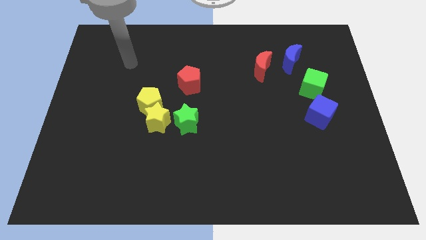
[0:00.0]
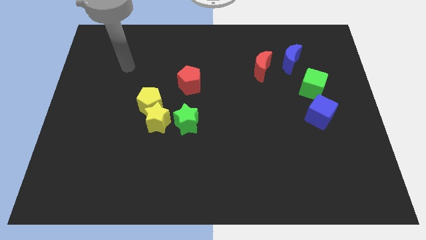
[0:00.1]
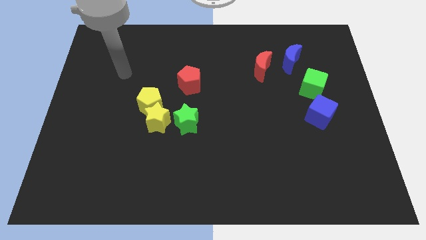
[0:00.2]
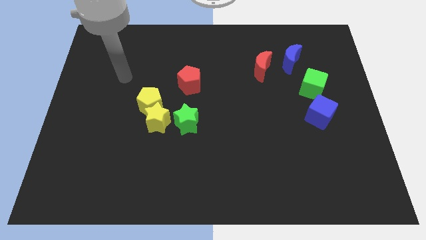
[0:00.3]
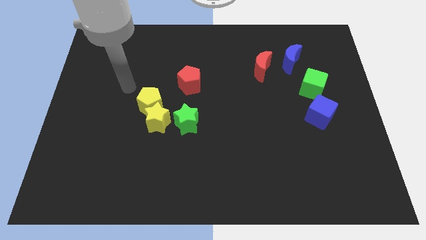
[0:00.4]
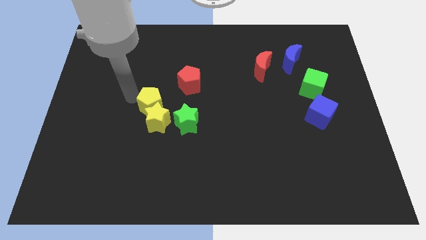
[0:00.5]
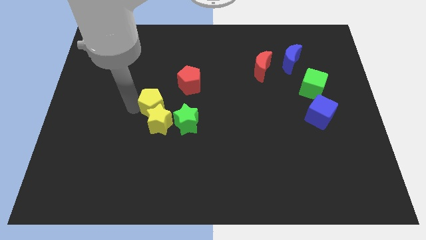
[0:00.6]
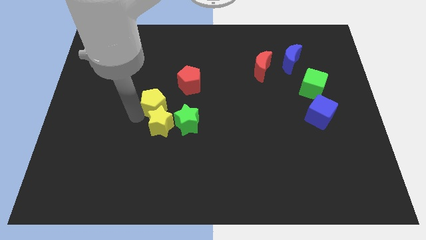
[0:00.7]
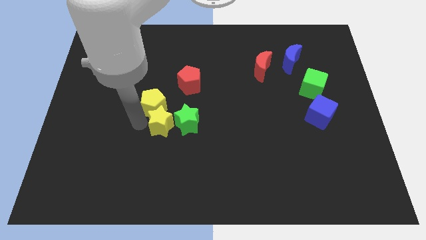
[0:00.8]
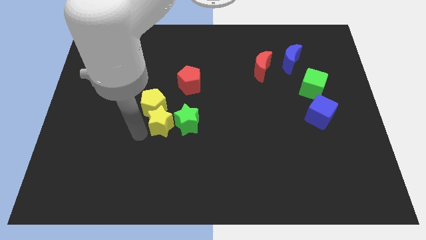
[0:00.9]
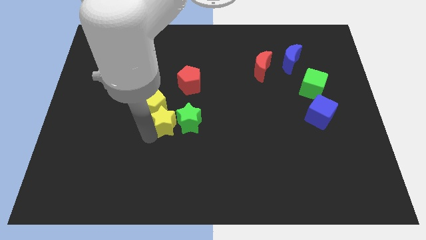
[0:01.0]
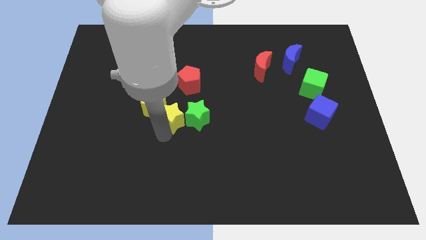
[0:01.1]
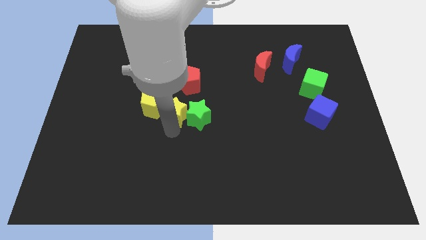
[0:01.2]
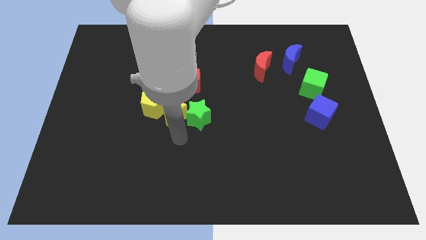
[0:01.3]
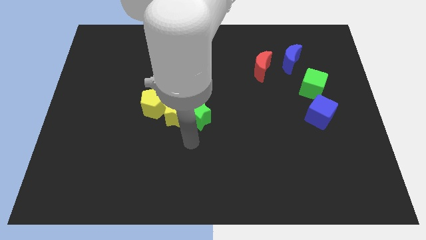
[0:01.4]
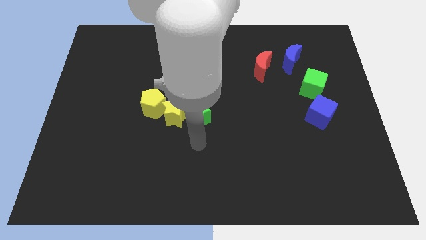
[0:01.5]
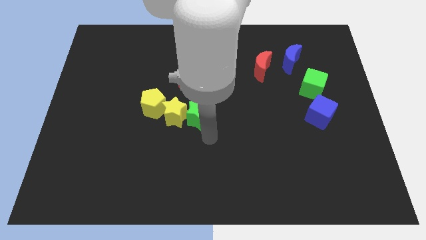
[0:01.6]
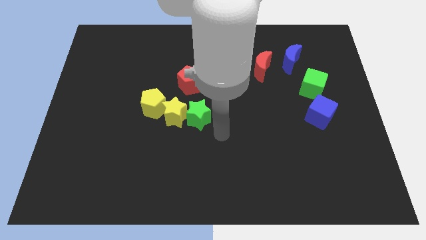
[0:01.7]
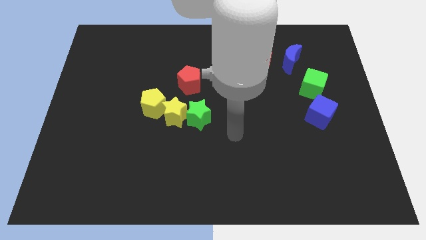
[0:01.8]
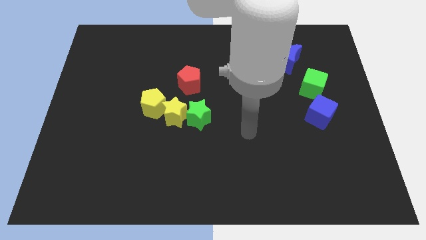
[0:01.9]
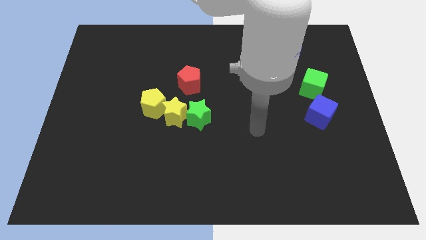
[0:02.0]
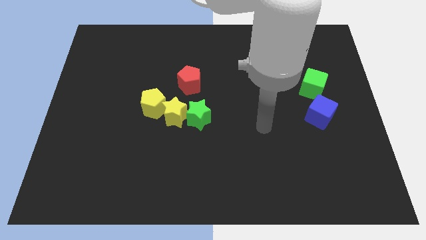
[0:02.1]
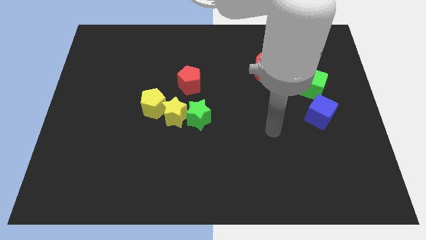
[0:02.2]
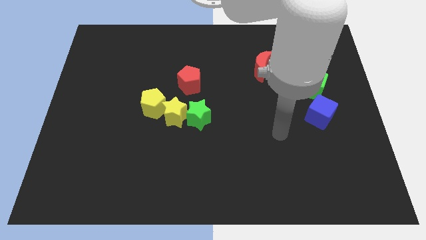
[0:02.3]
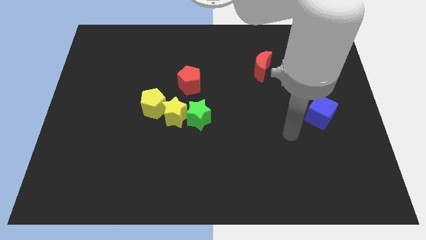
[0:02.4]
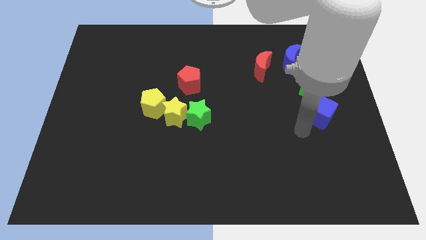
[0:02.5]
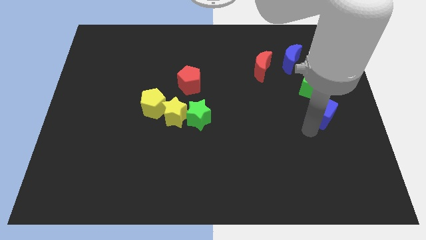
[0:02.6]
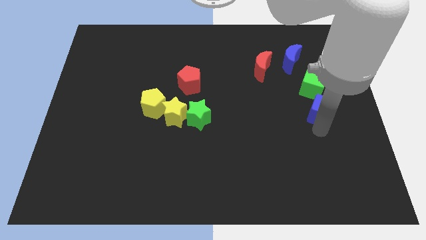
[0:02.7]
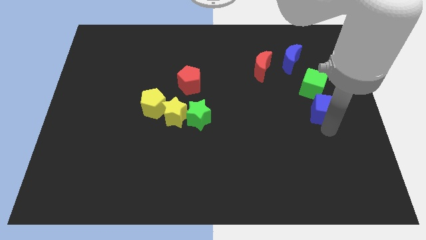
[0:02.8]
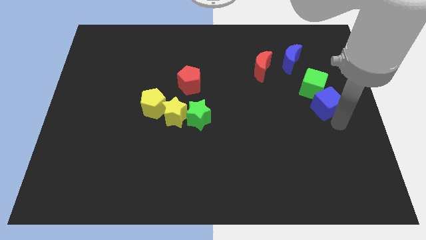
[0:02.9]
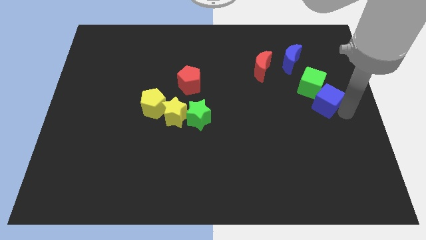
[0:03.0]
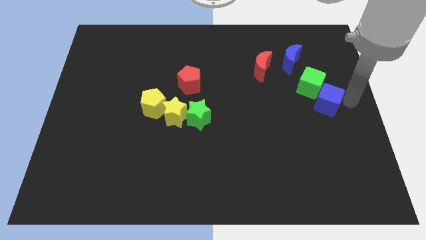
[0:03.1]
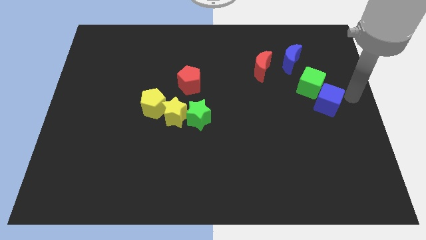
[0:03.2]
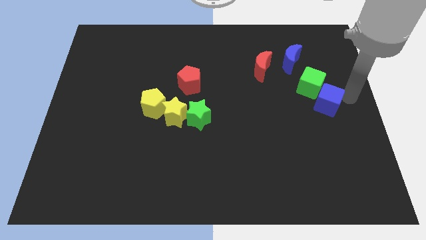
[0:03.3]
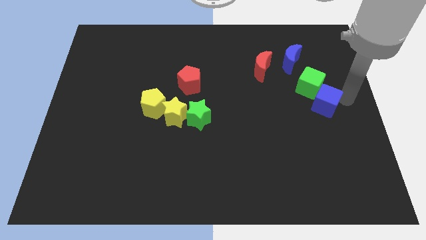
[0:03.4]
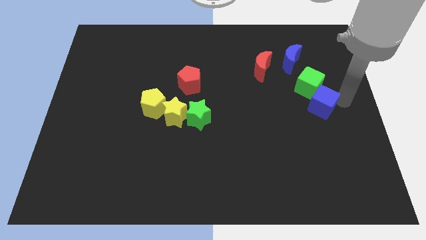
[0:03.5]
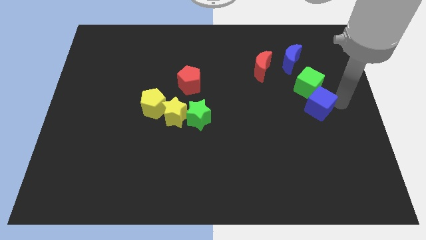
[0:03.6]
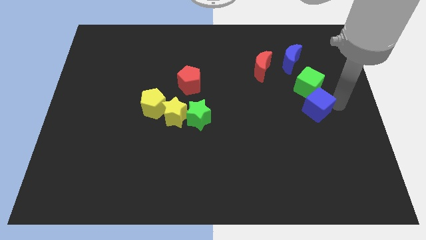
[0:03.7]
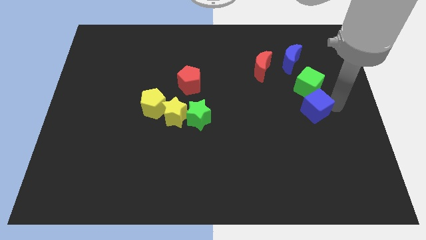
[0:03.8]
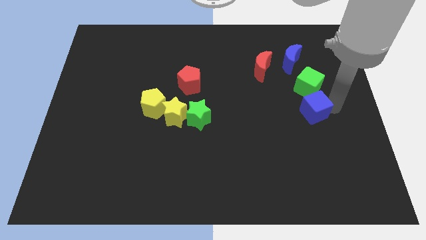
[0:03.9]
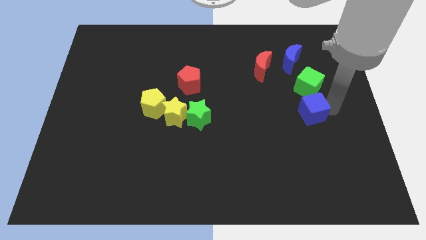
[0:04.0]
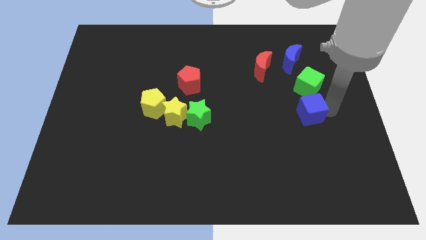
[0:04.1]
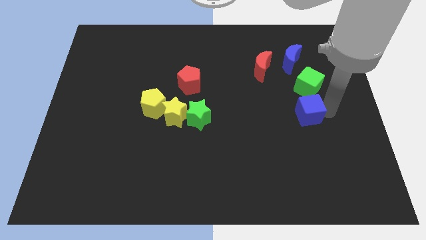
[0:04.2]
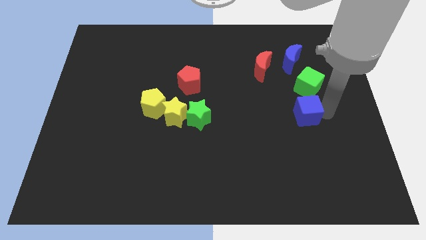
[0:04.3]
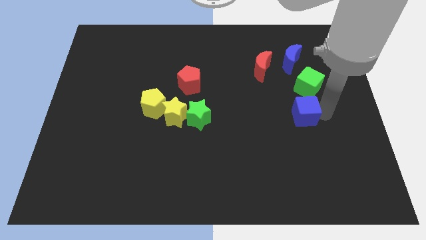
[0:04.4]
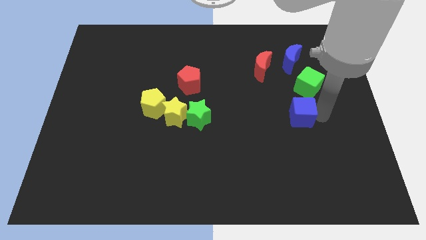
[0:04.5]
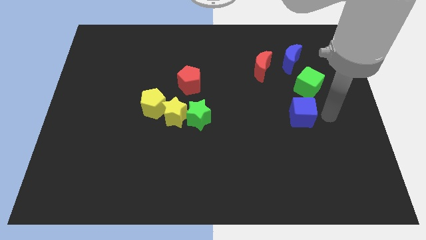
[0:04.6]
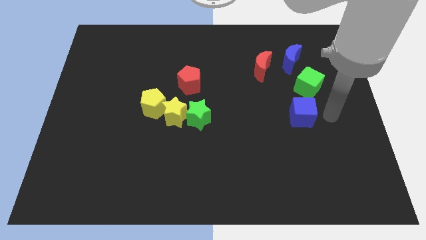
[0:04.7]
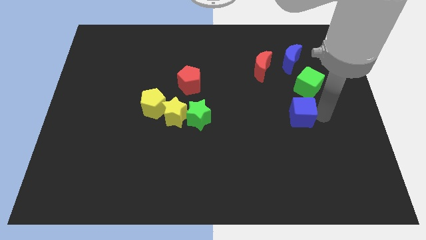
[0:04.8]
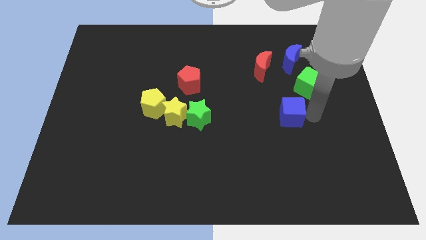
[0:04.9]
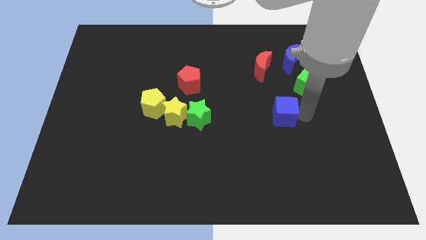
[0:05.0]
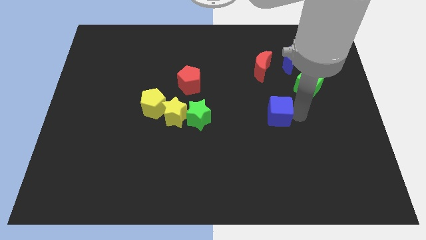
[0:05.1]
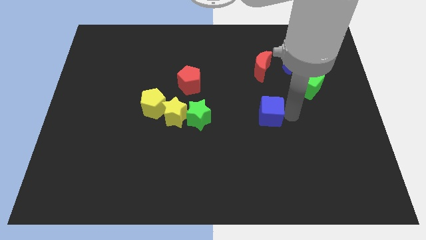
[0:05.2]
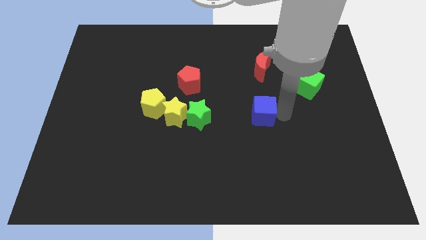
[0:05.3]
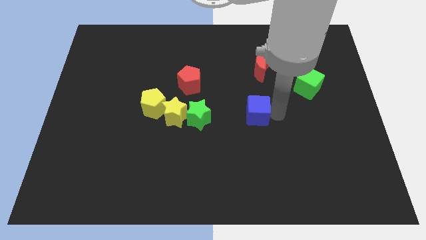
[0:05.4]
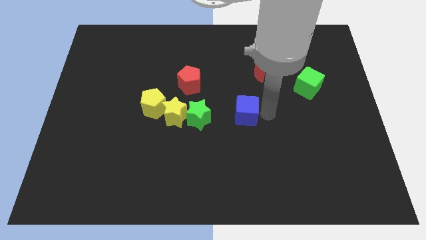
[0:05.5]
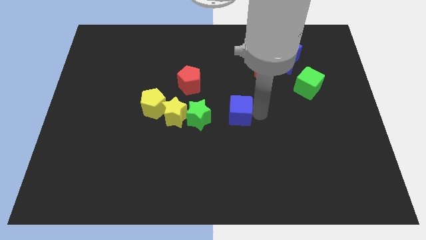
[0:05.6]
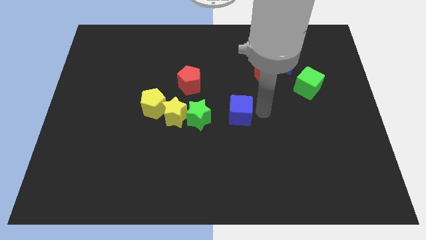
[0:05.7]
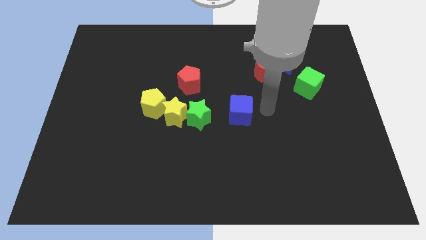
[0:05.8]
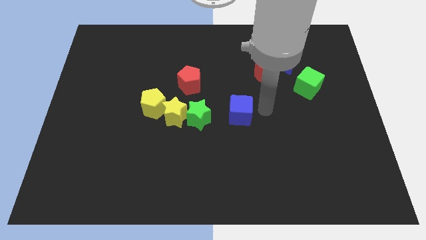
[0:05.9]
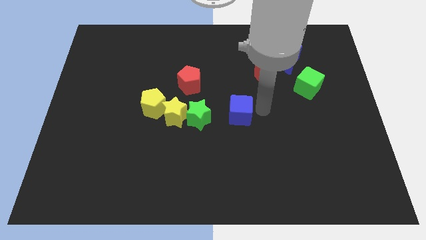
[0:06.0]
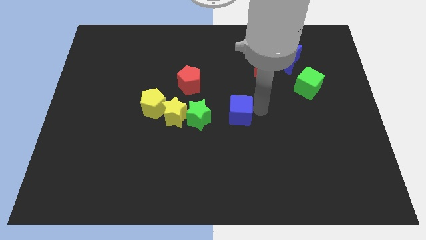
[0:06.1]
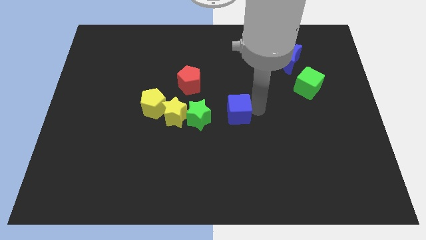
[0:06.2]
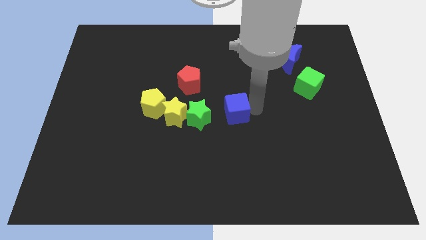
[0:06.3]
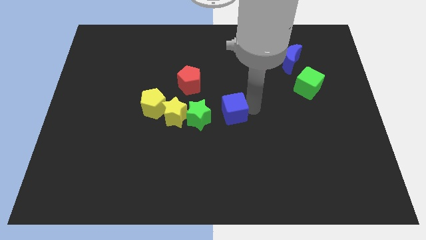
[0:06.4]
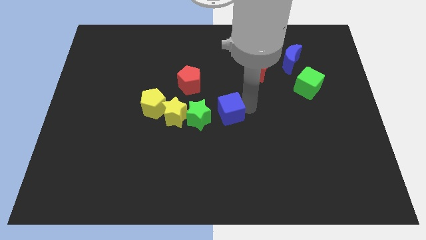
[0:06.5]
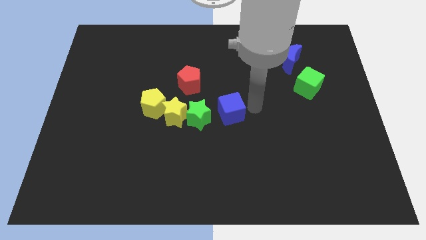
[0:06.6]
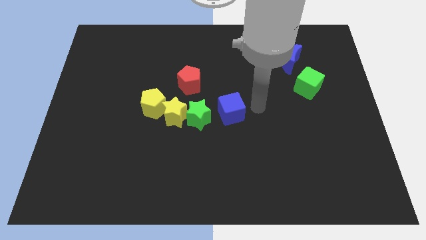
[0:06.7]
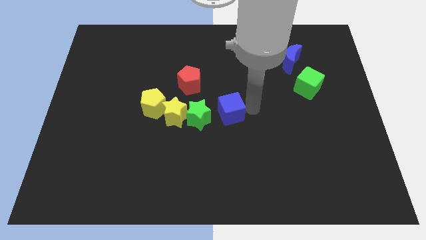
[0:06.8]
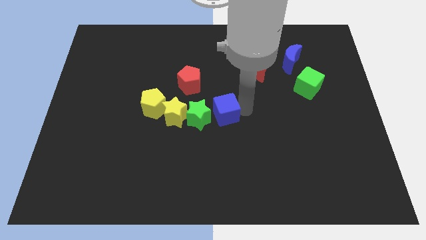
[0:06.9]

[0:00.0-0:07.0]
move the blue cube next to the green star

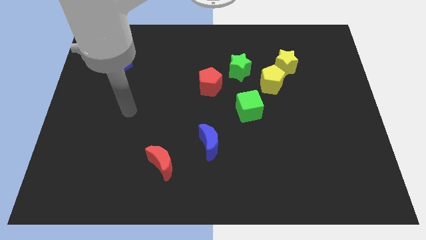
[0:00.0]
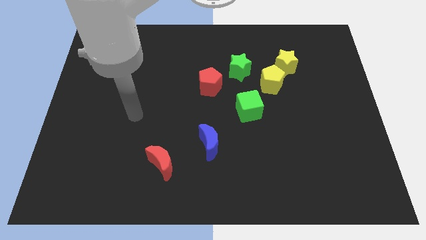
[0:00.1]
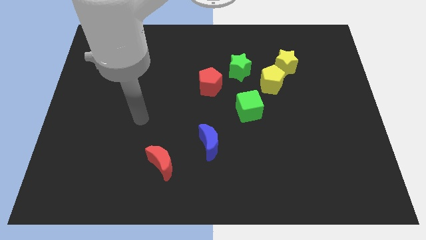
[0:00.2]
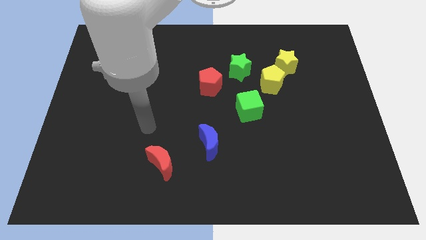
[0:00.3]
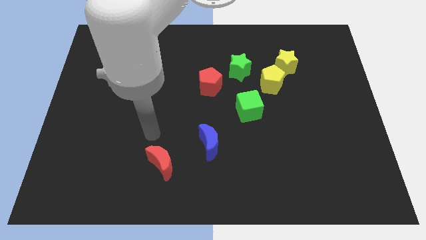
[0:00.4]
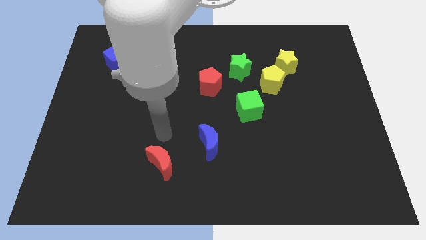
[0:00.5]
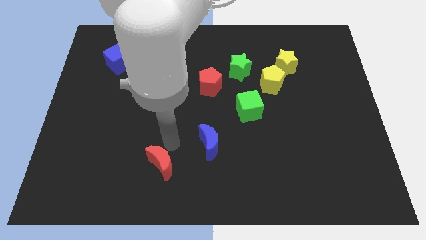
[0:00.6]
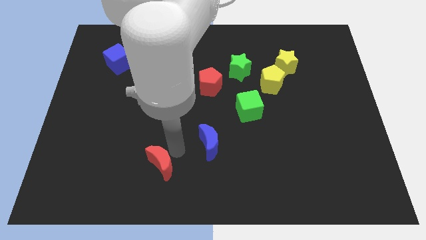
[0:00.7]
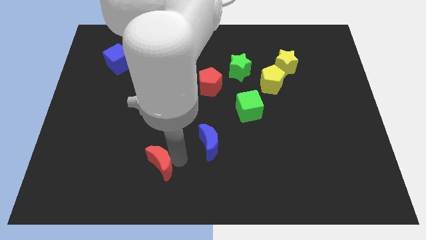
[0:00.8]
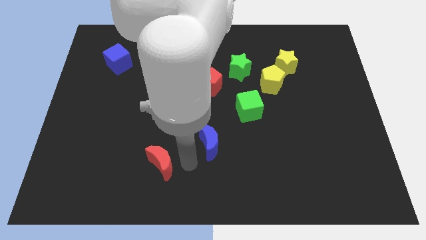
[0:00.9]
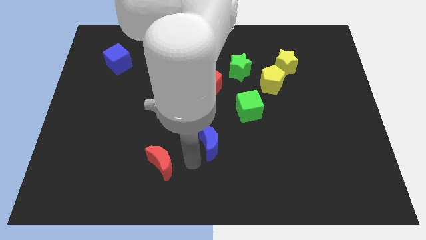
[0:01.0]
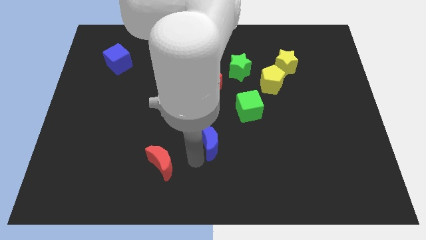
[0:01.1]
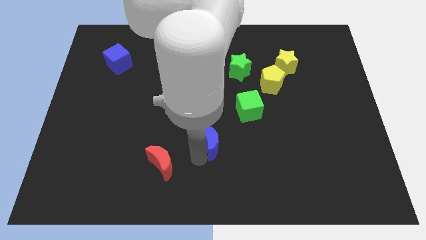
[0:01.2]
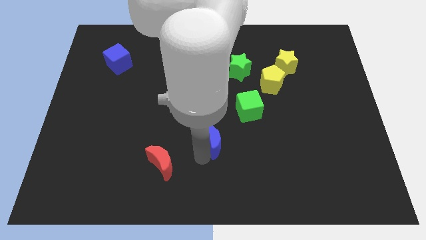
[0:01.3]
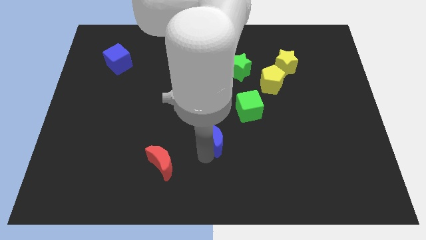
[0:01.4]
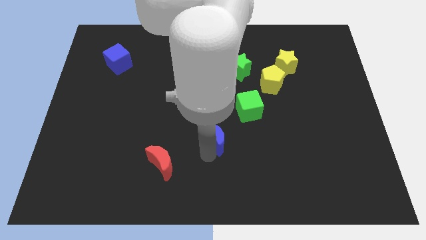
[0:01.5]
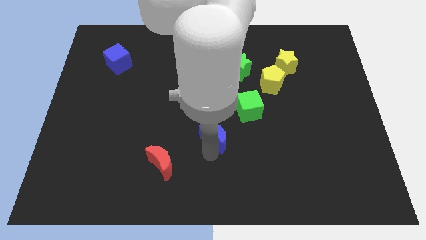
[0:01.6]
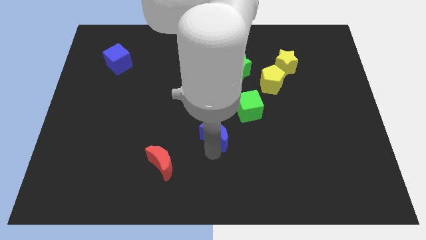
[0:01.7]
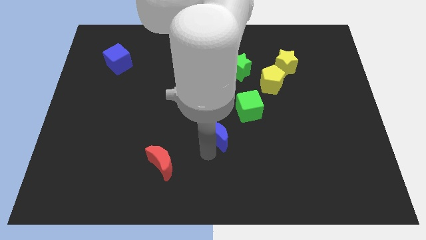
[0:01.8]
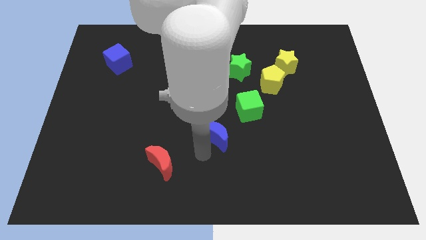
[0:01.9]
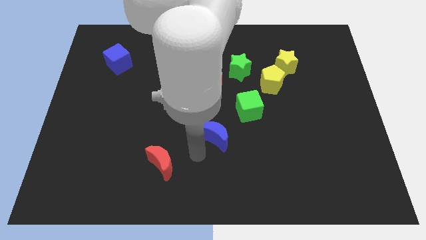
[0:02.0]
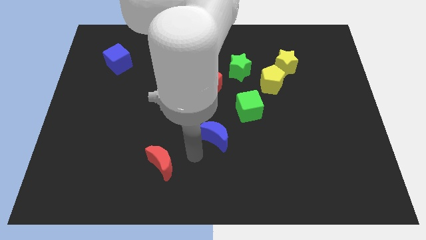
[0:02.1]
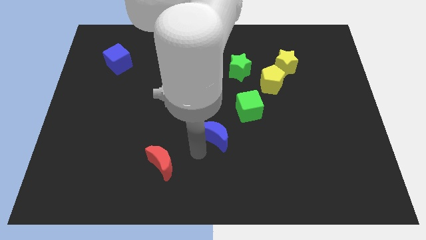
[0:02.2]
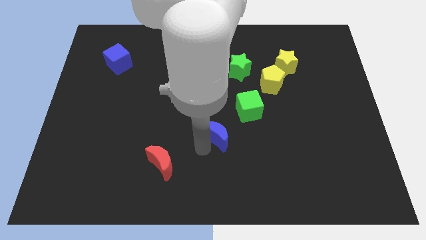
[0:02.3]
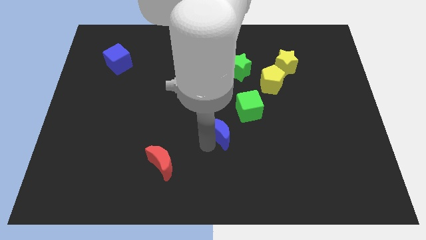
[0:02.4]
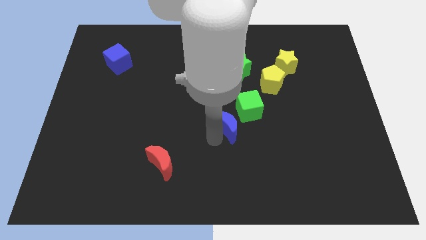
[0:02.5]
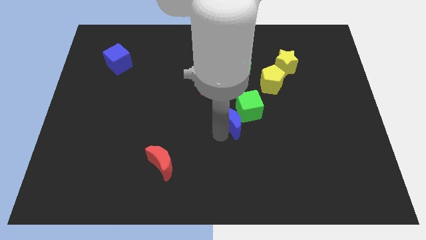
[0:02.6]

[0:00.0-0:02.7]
put the blue moon to the green cube
